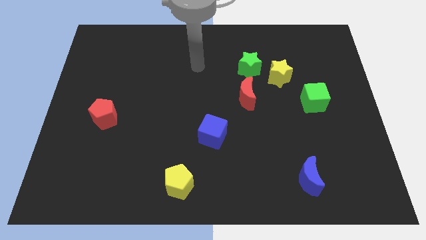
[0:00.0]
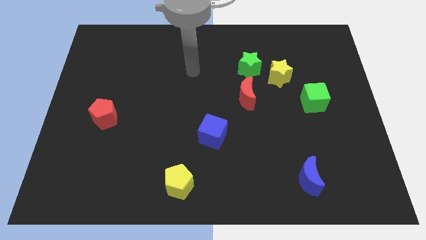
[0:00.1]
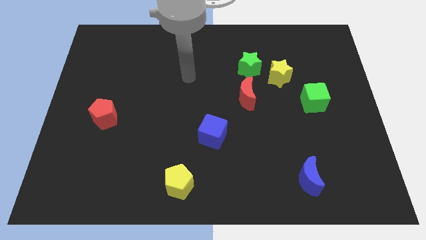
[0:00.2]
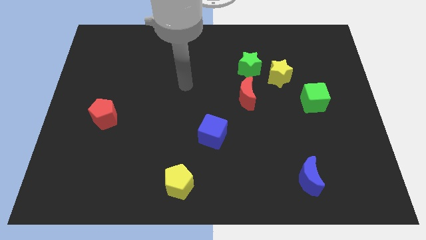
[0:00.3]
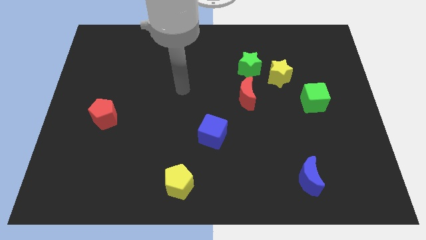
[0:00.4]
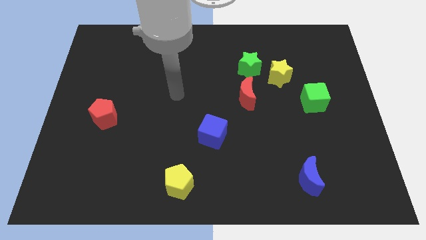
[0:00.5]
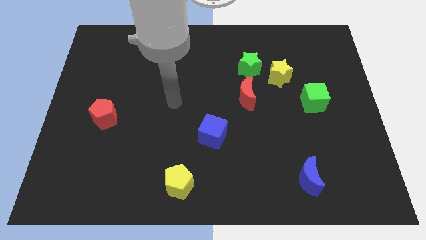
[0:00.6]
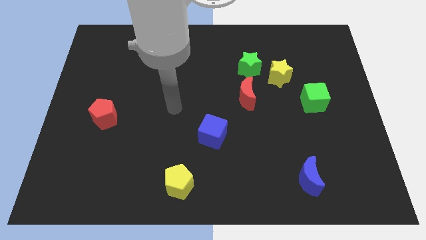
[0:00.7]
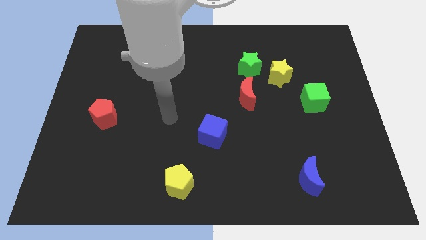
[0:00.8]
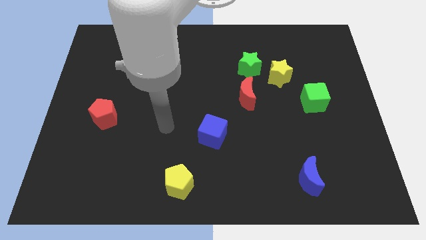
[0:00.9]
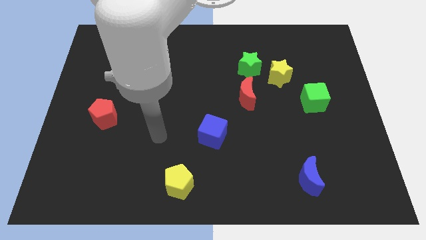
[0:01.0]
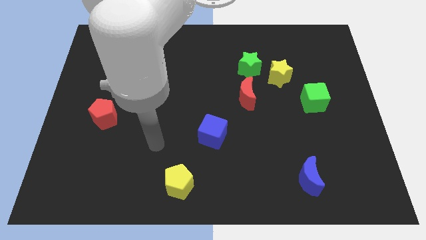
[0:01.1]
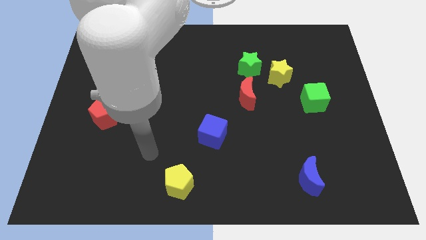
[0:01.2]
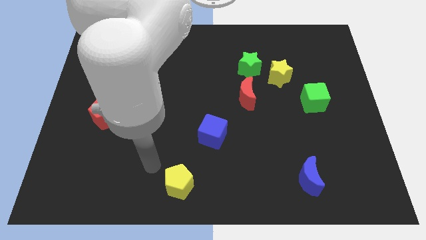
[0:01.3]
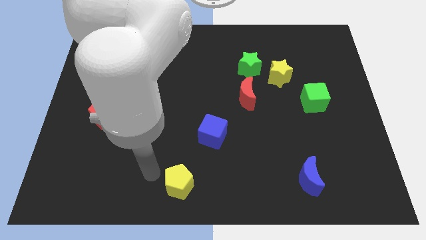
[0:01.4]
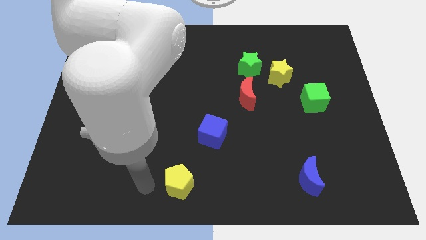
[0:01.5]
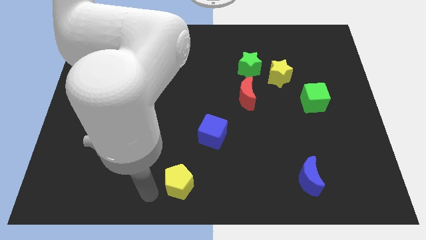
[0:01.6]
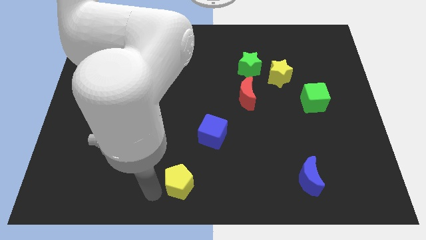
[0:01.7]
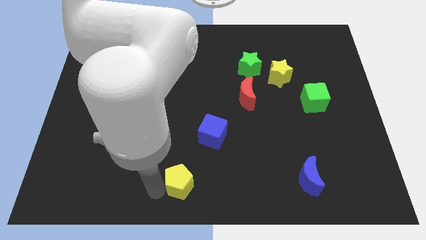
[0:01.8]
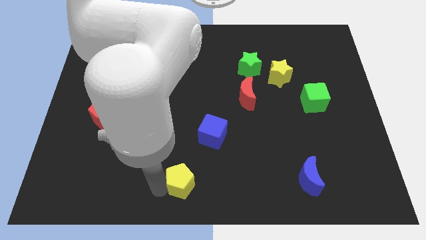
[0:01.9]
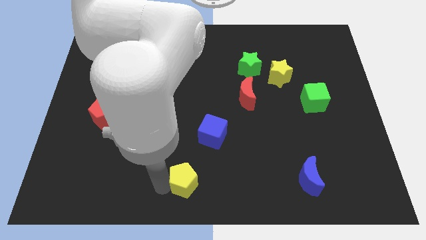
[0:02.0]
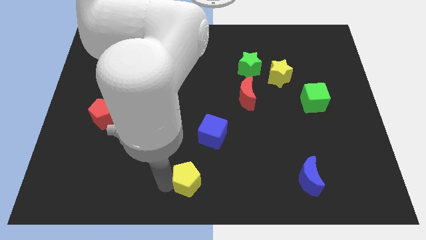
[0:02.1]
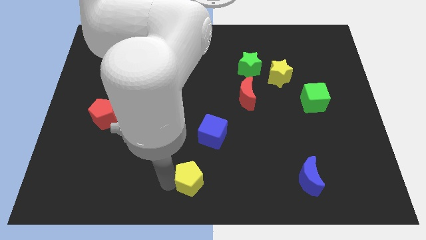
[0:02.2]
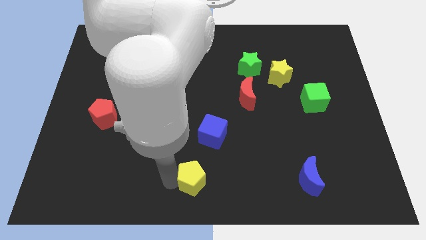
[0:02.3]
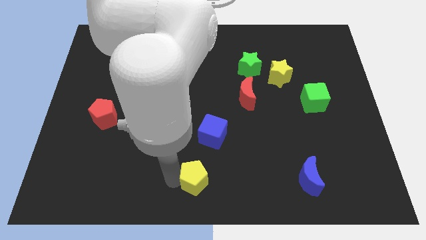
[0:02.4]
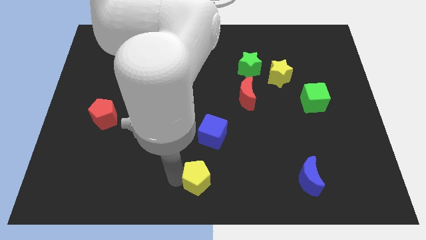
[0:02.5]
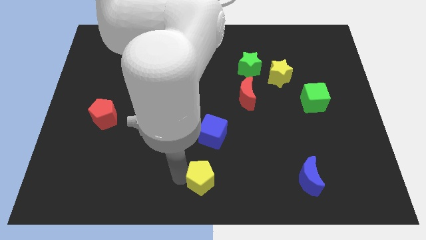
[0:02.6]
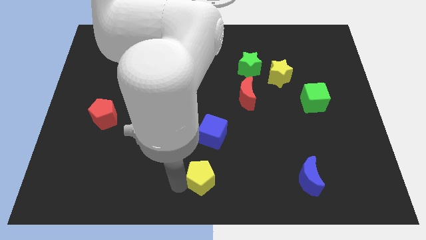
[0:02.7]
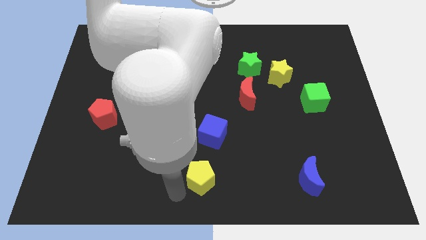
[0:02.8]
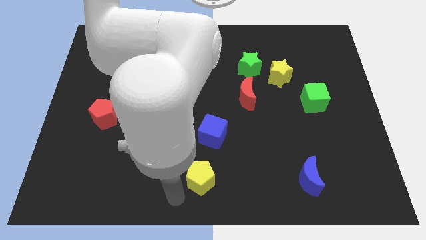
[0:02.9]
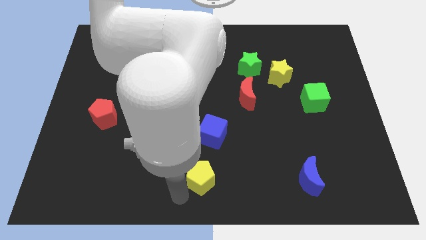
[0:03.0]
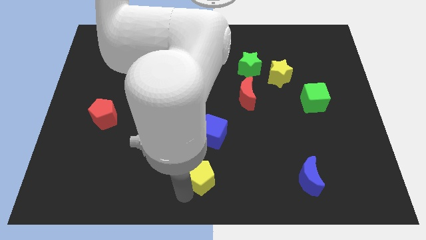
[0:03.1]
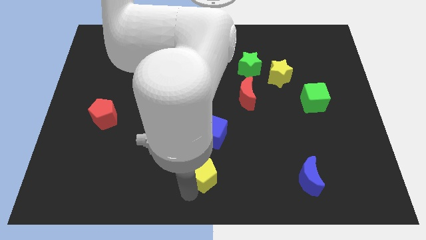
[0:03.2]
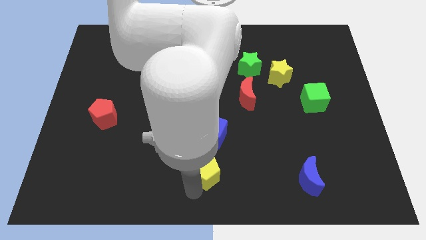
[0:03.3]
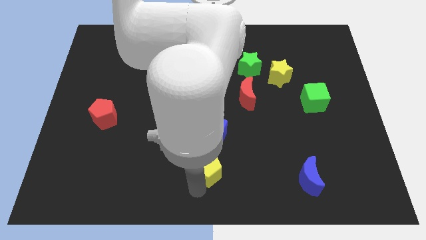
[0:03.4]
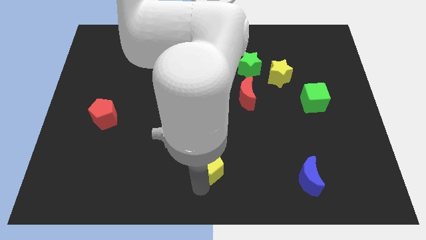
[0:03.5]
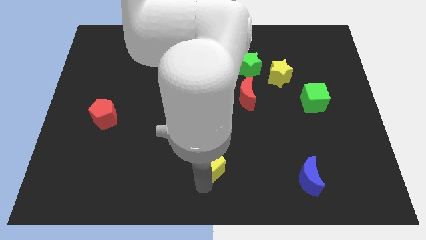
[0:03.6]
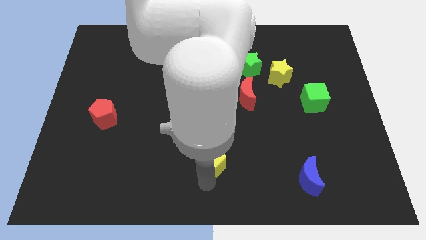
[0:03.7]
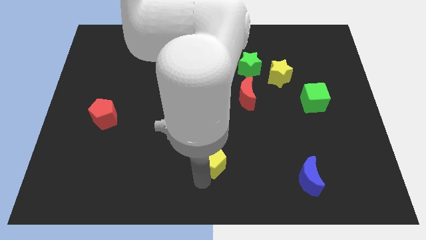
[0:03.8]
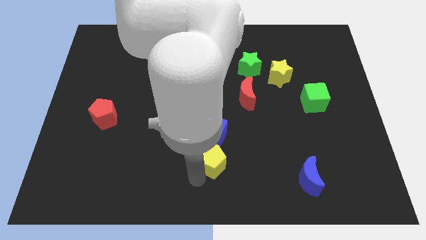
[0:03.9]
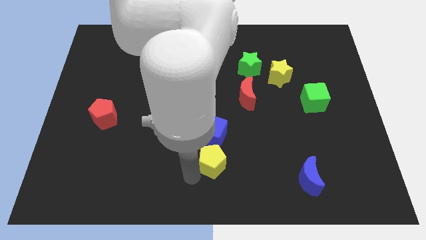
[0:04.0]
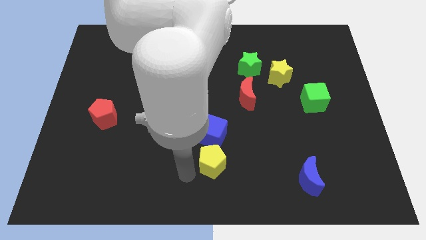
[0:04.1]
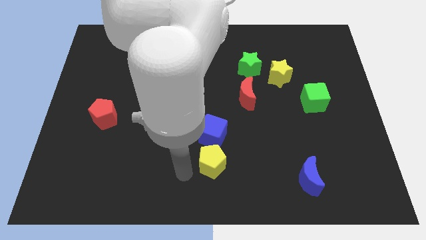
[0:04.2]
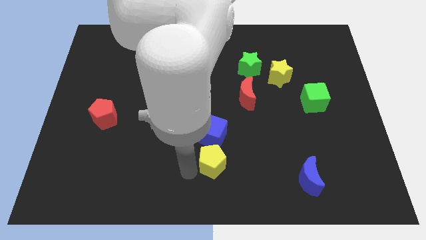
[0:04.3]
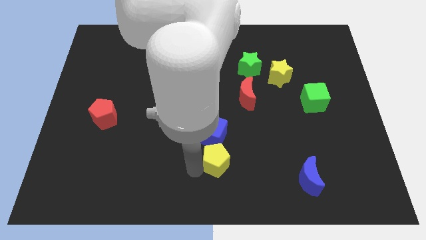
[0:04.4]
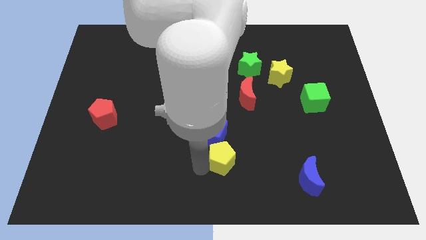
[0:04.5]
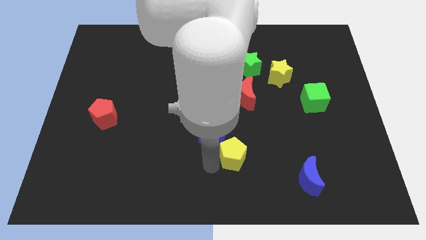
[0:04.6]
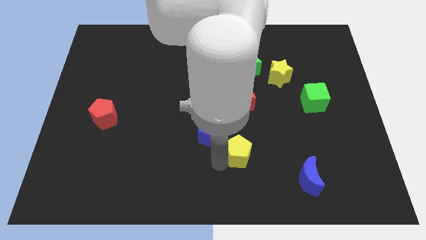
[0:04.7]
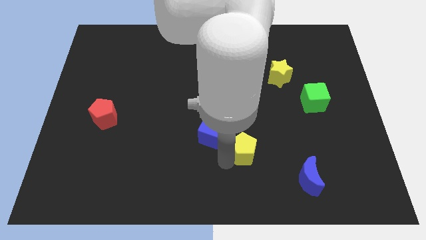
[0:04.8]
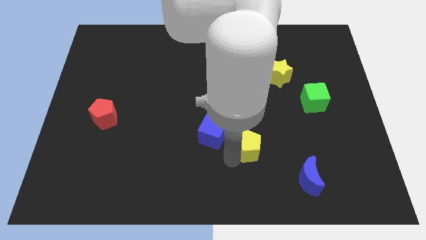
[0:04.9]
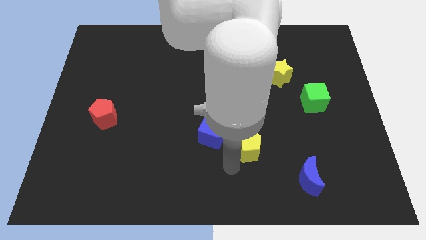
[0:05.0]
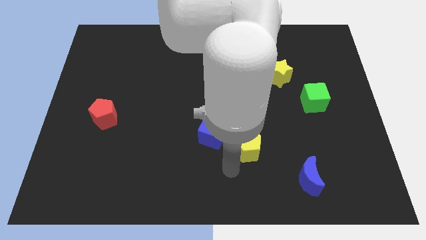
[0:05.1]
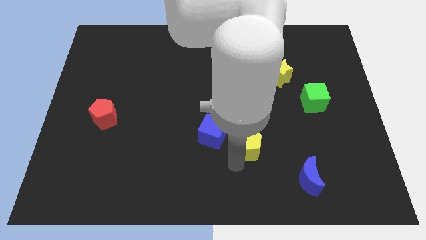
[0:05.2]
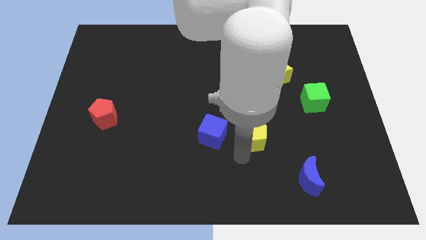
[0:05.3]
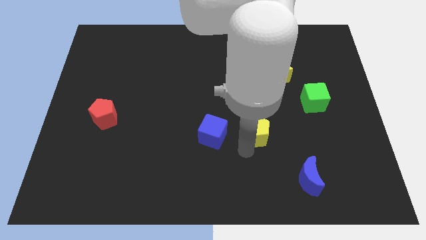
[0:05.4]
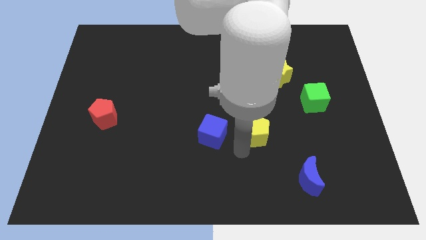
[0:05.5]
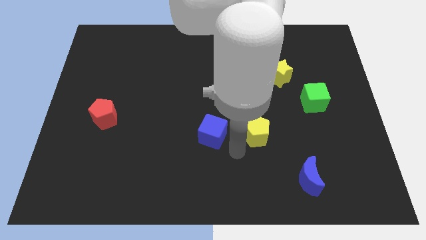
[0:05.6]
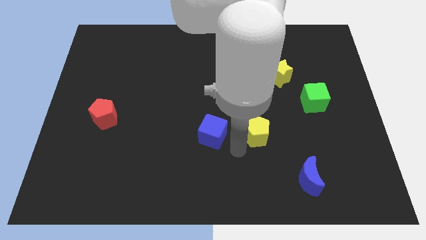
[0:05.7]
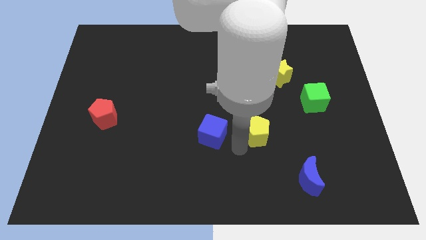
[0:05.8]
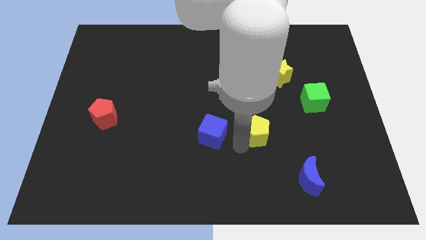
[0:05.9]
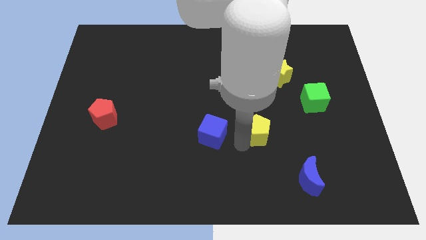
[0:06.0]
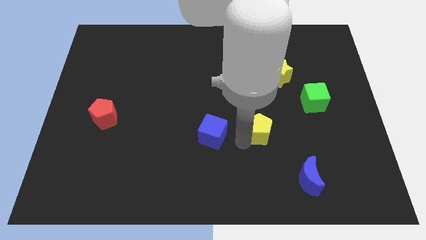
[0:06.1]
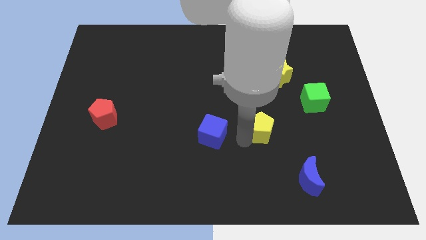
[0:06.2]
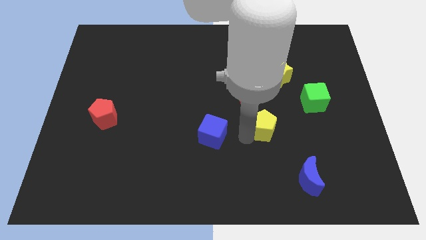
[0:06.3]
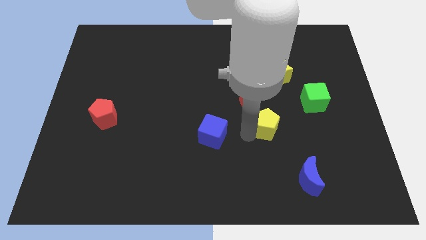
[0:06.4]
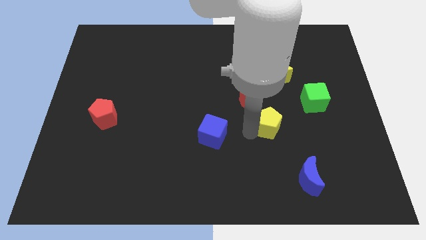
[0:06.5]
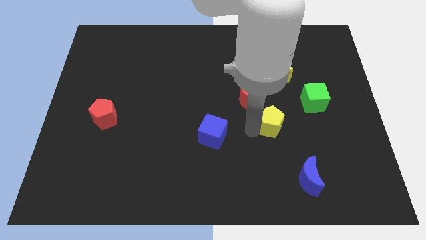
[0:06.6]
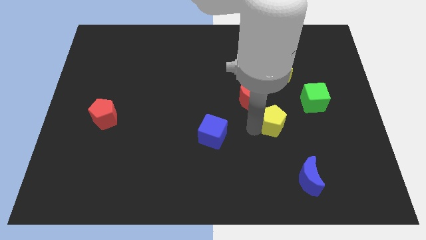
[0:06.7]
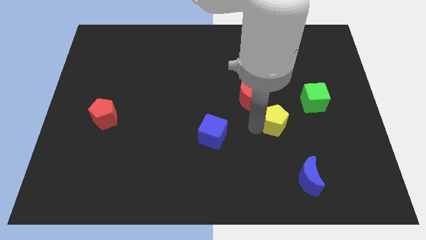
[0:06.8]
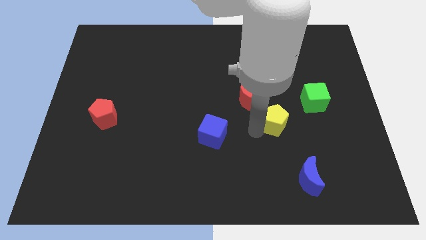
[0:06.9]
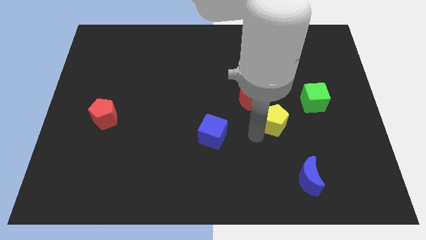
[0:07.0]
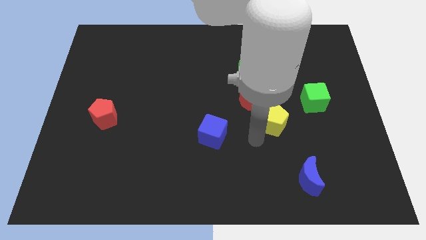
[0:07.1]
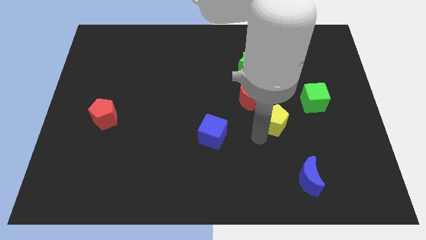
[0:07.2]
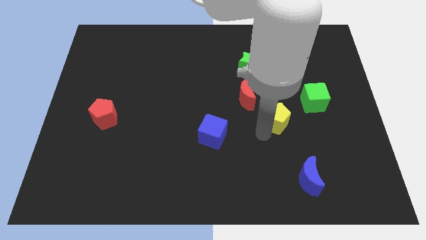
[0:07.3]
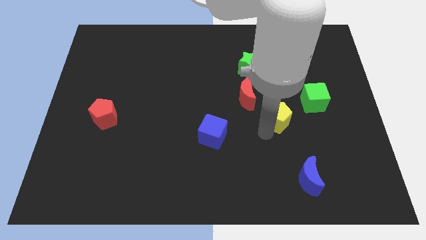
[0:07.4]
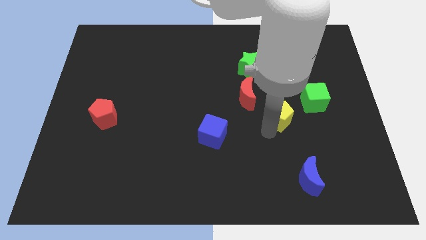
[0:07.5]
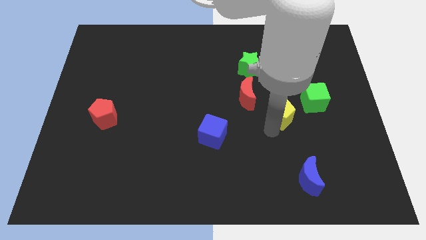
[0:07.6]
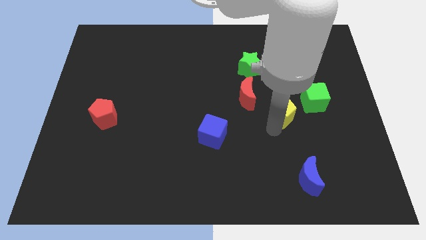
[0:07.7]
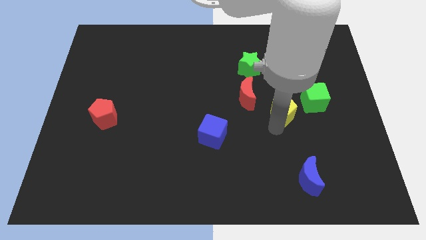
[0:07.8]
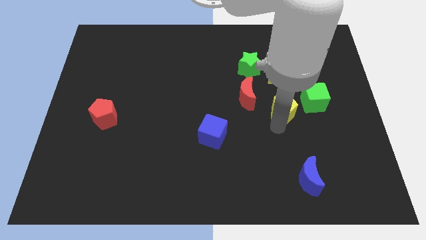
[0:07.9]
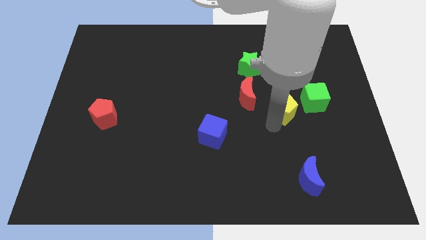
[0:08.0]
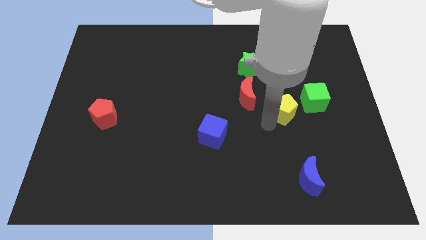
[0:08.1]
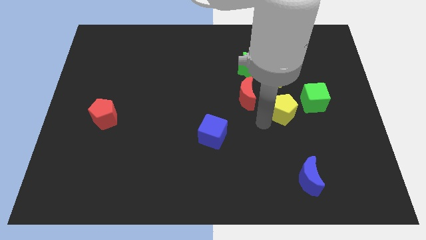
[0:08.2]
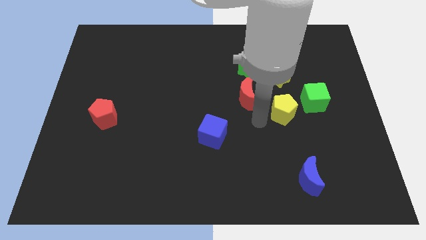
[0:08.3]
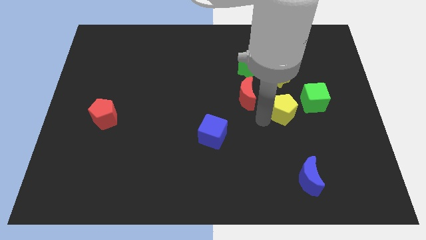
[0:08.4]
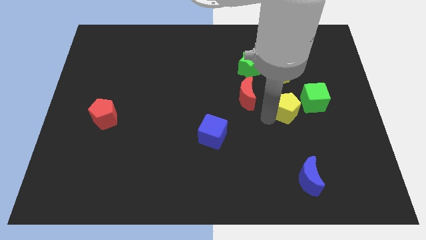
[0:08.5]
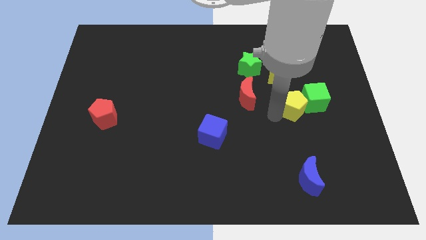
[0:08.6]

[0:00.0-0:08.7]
push the yellow pentagon towards the green cube
